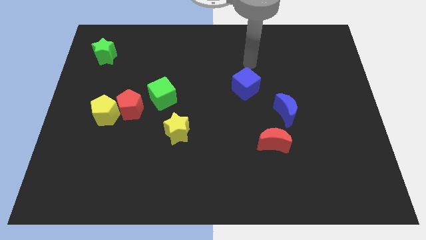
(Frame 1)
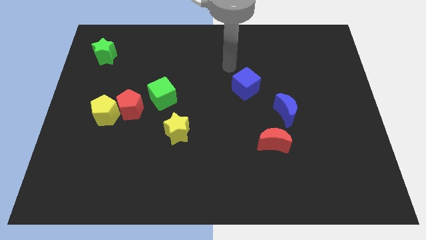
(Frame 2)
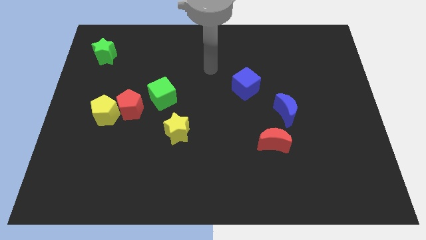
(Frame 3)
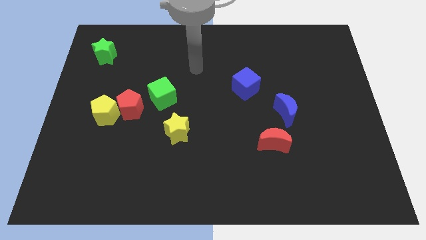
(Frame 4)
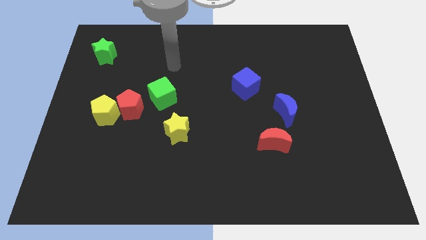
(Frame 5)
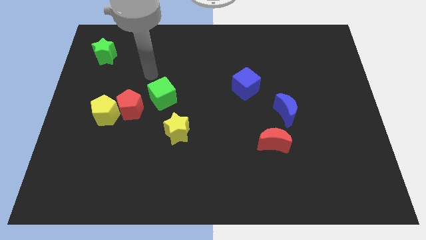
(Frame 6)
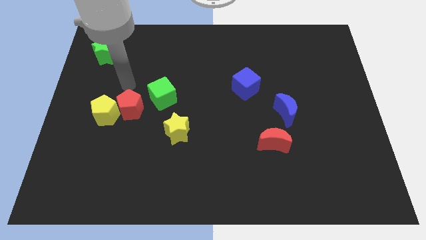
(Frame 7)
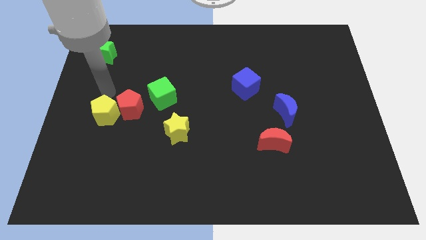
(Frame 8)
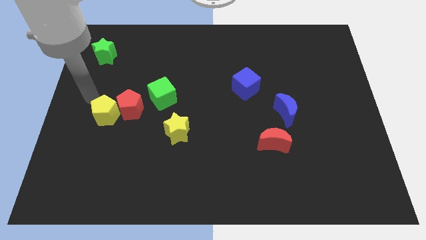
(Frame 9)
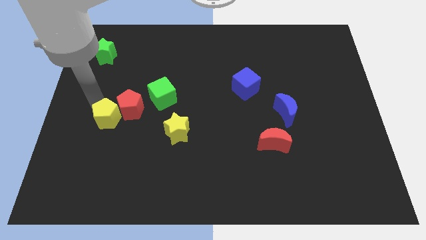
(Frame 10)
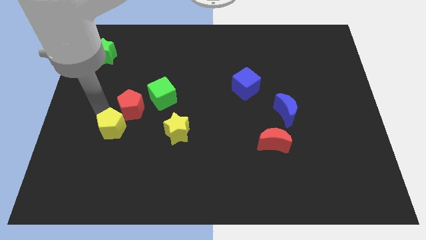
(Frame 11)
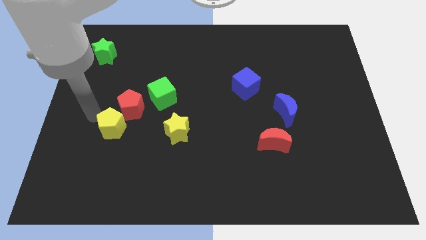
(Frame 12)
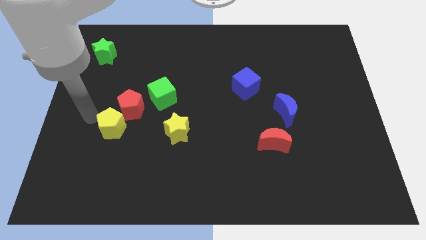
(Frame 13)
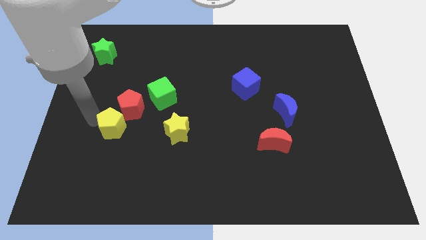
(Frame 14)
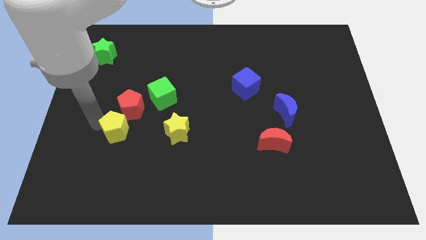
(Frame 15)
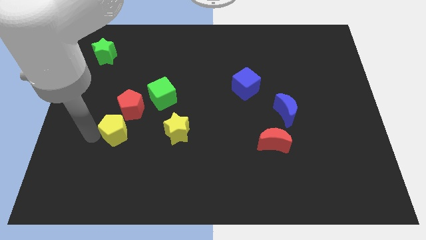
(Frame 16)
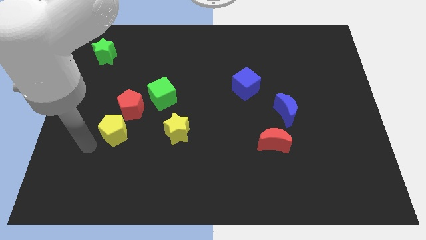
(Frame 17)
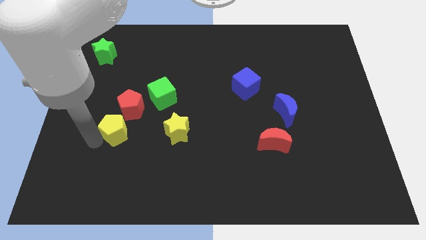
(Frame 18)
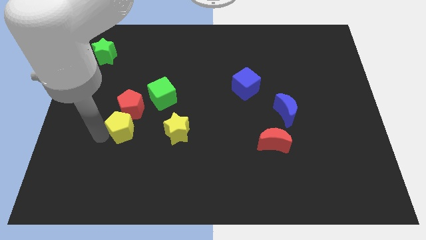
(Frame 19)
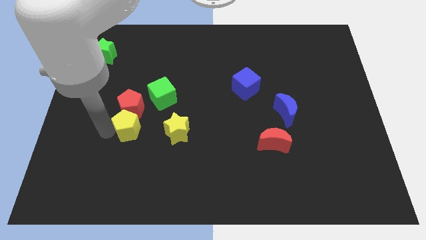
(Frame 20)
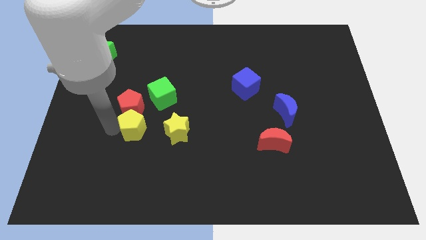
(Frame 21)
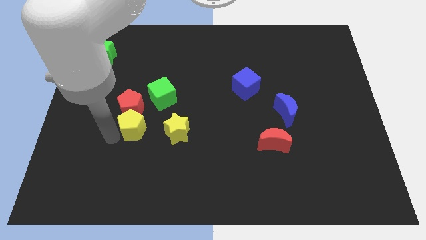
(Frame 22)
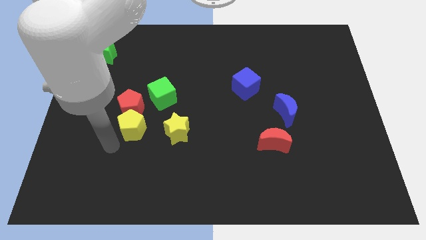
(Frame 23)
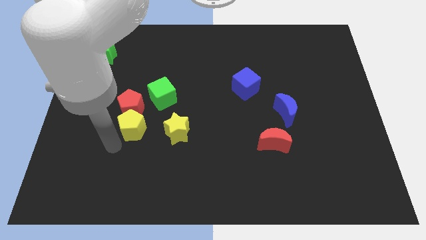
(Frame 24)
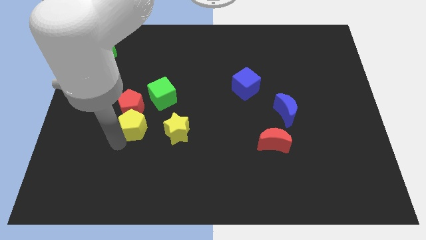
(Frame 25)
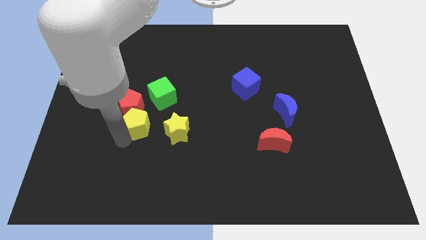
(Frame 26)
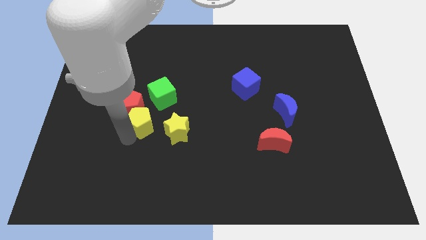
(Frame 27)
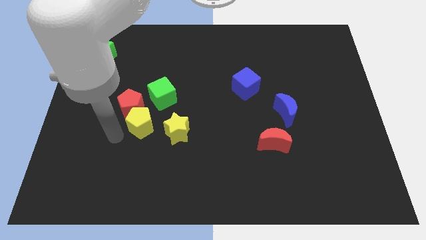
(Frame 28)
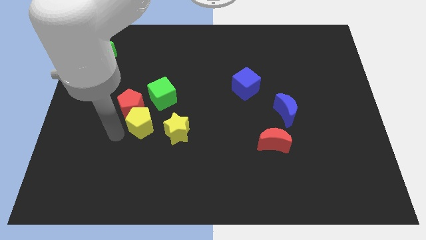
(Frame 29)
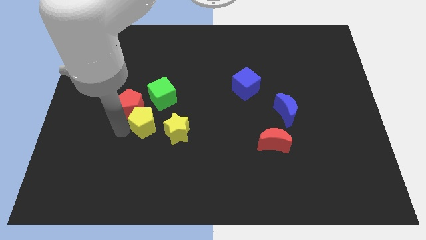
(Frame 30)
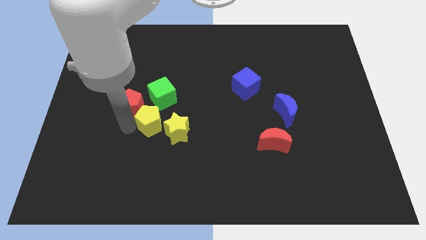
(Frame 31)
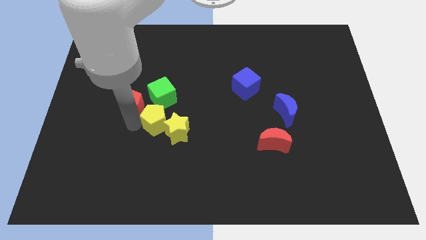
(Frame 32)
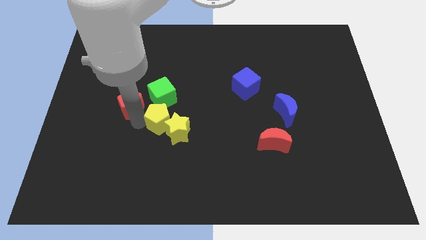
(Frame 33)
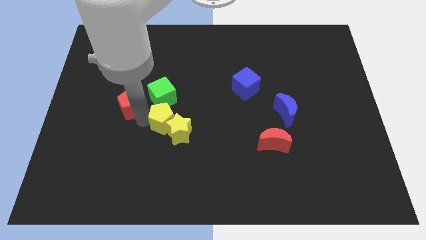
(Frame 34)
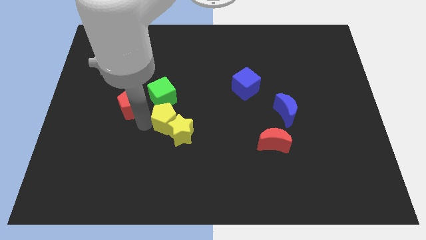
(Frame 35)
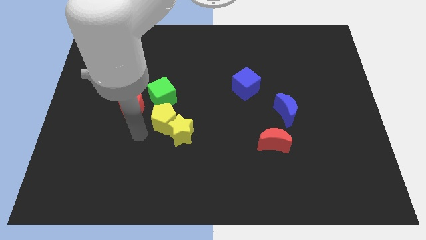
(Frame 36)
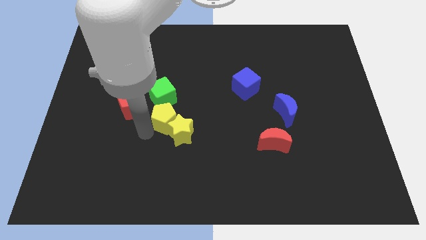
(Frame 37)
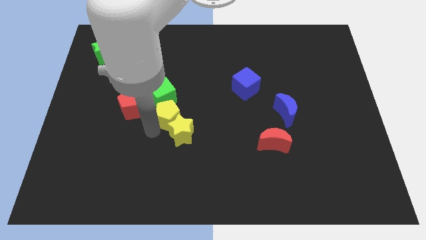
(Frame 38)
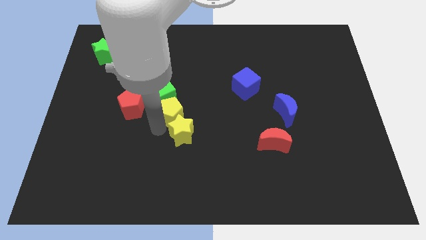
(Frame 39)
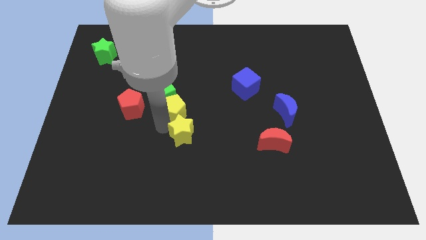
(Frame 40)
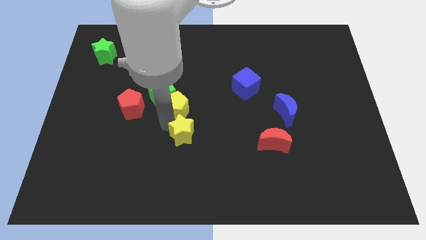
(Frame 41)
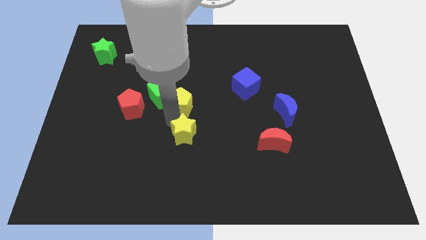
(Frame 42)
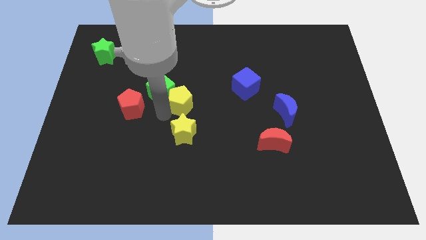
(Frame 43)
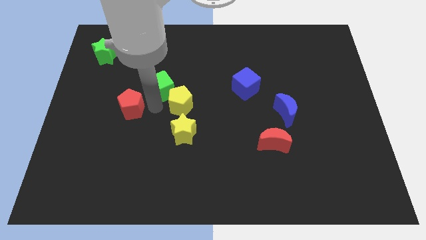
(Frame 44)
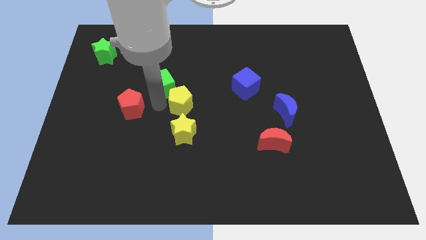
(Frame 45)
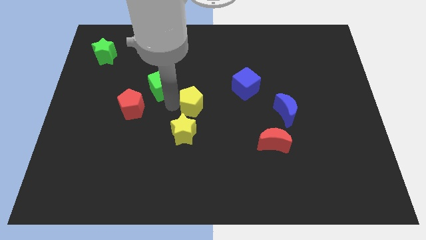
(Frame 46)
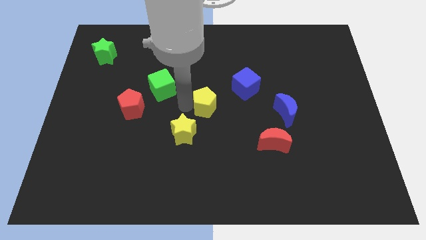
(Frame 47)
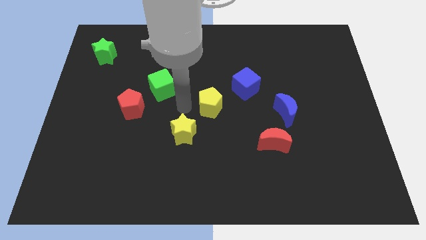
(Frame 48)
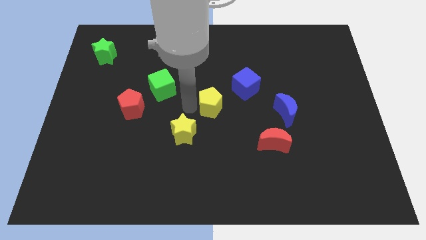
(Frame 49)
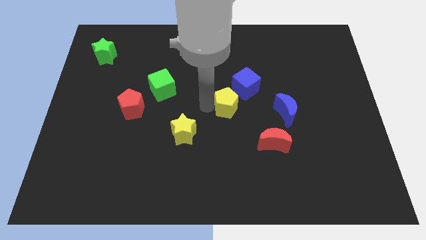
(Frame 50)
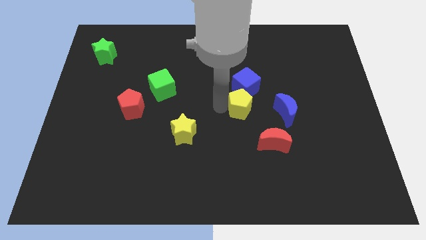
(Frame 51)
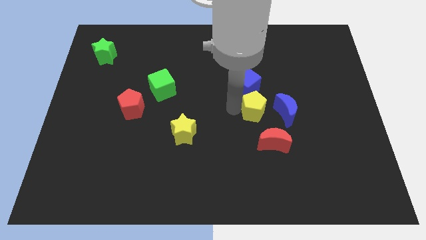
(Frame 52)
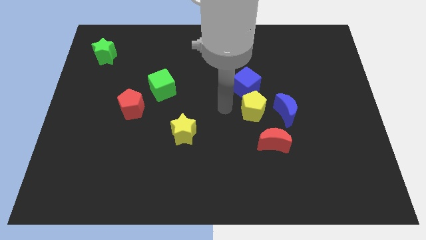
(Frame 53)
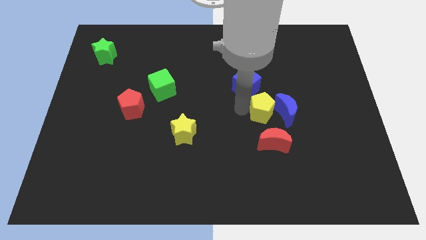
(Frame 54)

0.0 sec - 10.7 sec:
put the yellow pentagon next to the blue moon

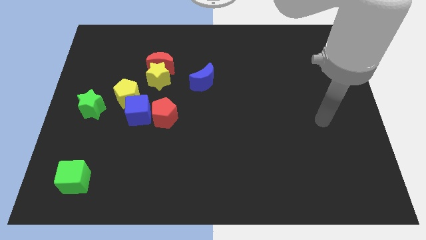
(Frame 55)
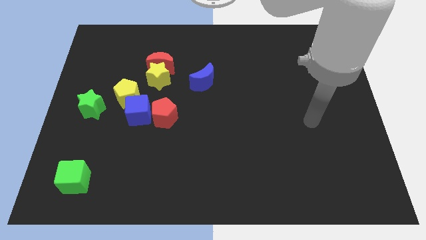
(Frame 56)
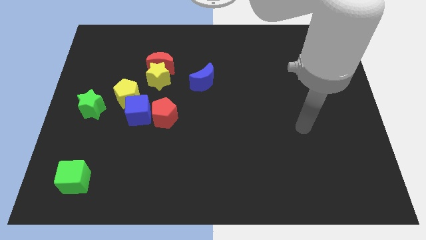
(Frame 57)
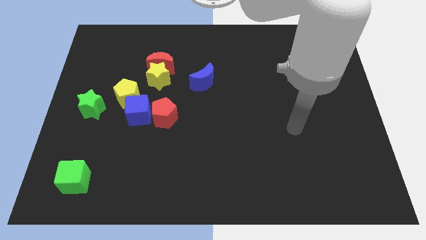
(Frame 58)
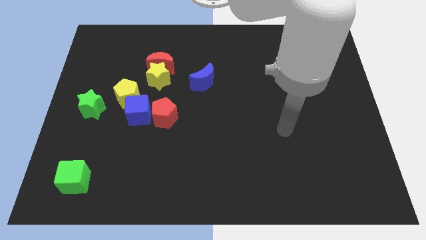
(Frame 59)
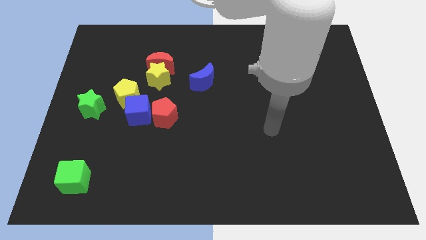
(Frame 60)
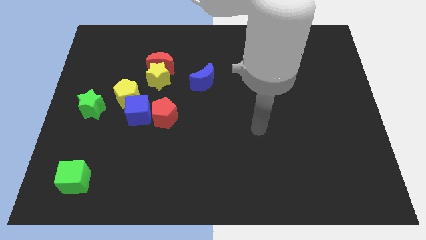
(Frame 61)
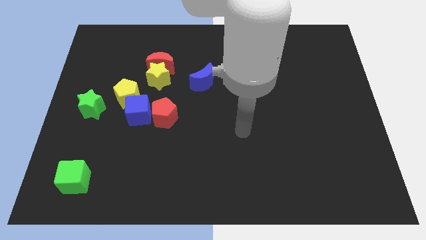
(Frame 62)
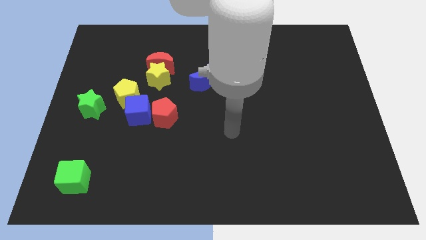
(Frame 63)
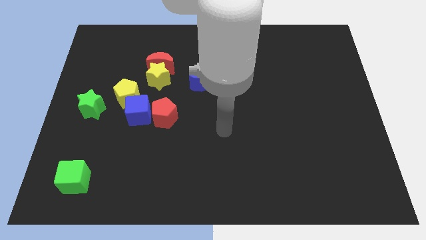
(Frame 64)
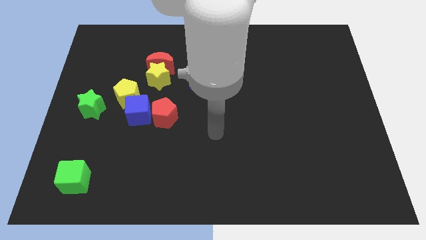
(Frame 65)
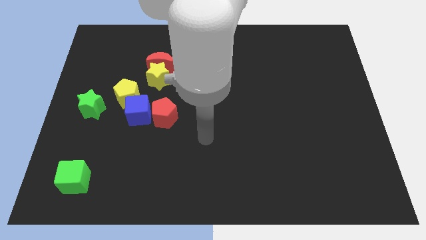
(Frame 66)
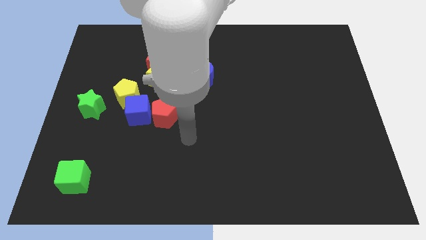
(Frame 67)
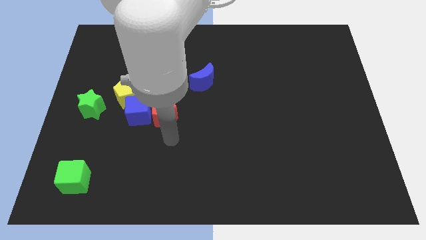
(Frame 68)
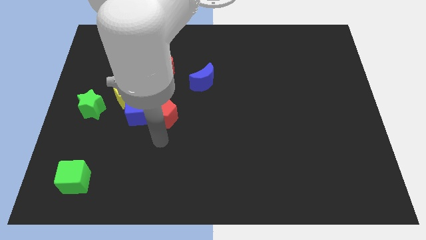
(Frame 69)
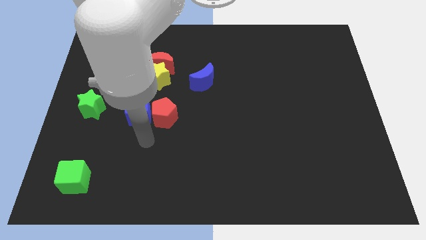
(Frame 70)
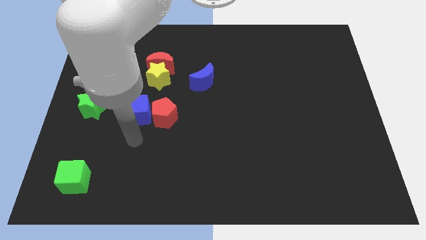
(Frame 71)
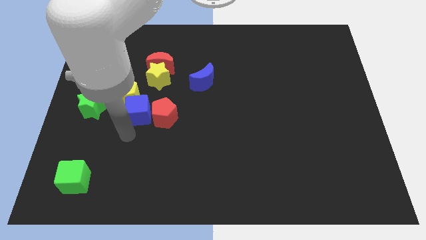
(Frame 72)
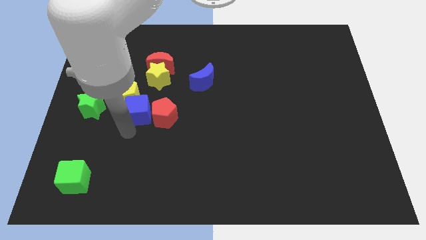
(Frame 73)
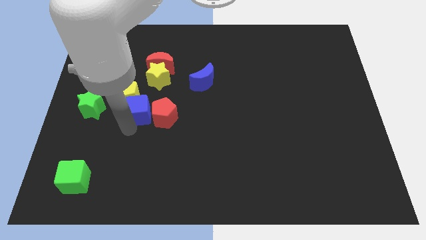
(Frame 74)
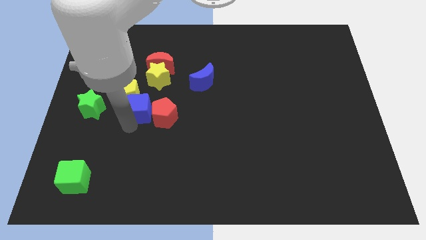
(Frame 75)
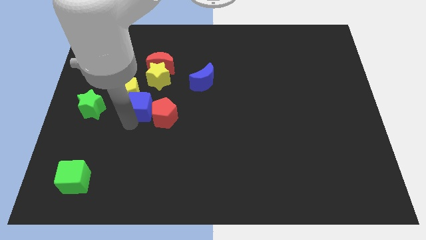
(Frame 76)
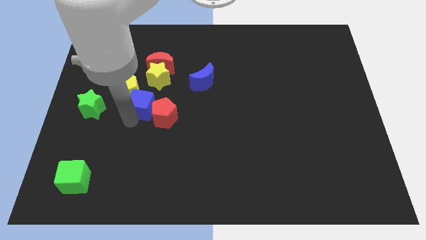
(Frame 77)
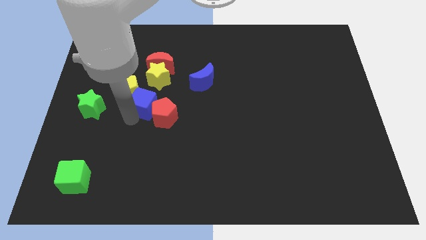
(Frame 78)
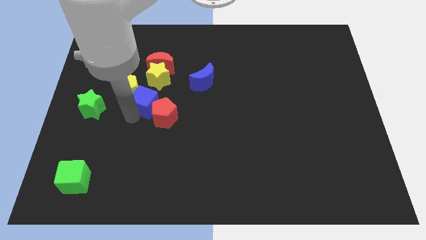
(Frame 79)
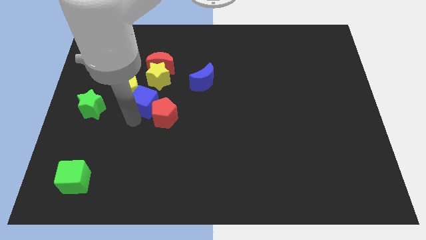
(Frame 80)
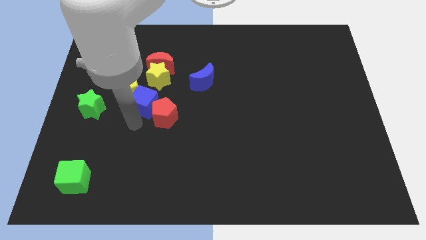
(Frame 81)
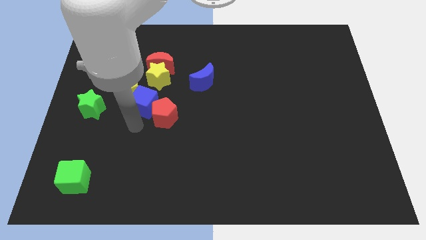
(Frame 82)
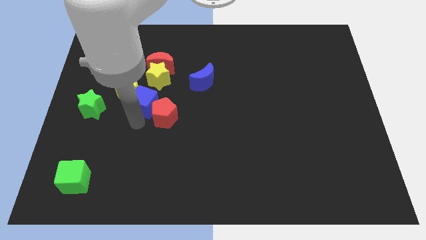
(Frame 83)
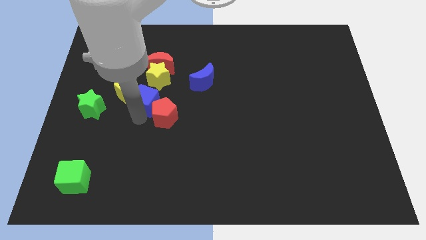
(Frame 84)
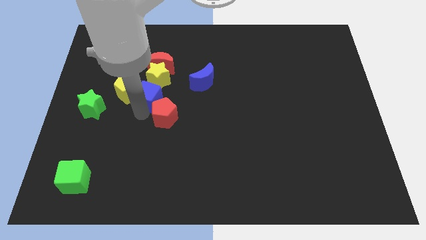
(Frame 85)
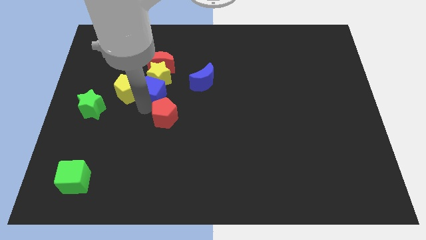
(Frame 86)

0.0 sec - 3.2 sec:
push the blue cube close to the yellow star
